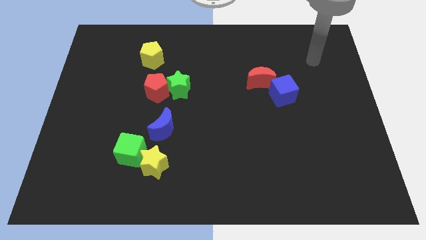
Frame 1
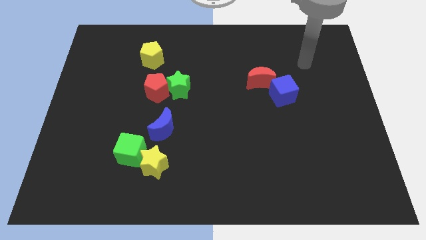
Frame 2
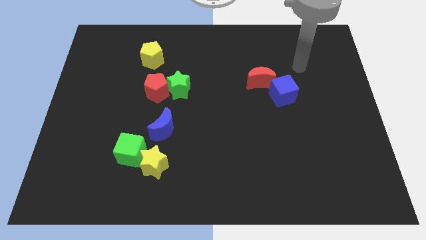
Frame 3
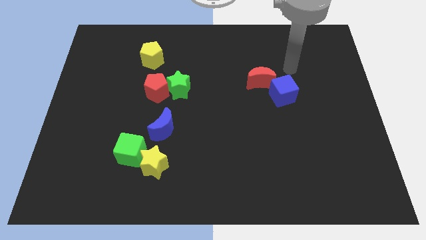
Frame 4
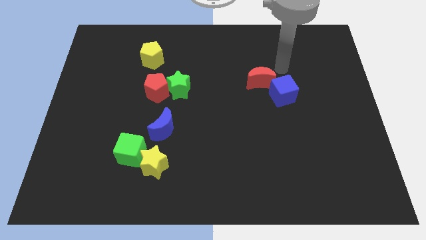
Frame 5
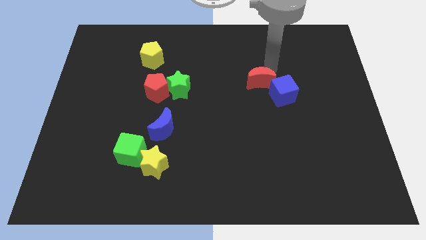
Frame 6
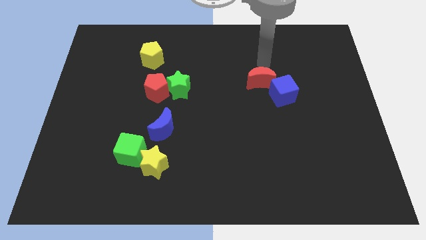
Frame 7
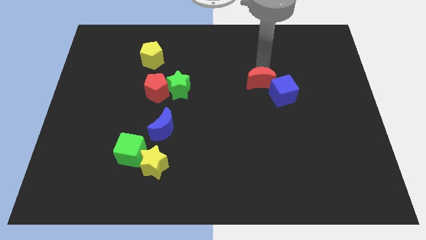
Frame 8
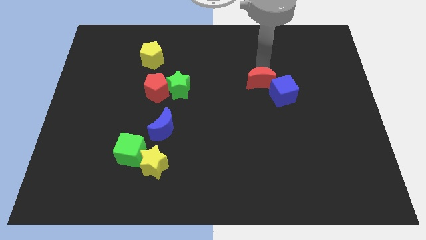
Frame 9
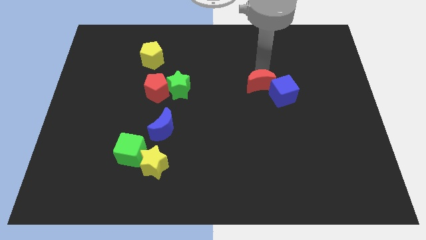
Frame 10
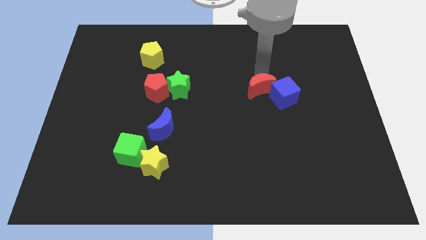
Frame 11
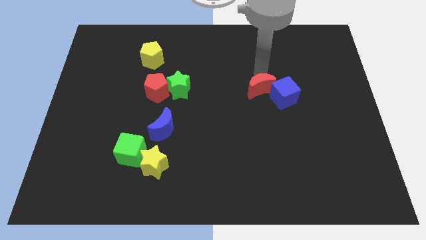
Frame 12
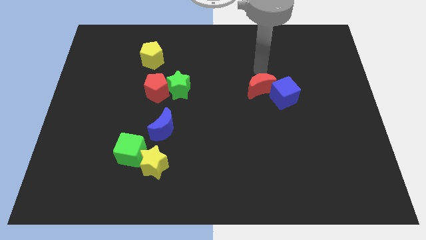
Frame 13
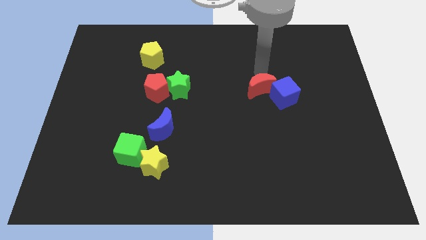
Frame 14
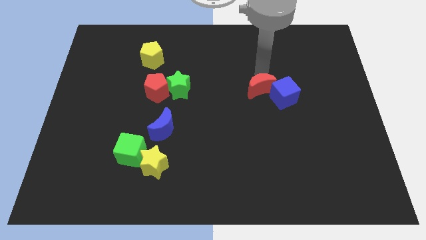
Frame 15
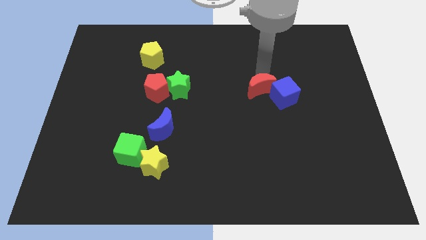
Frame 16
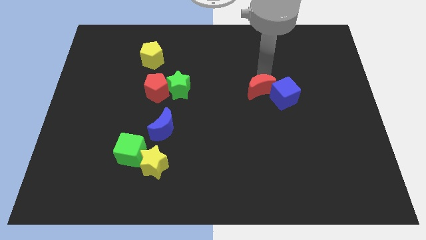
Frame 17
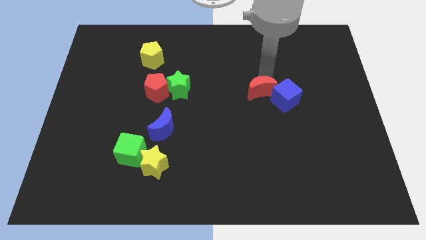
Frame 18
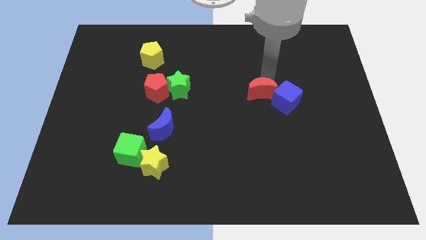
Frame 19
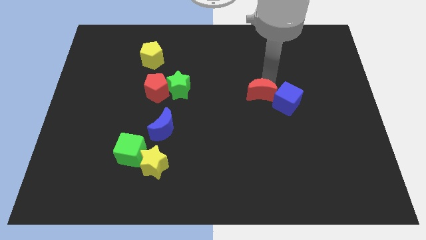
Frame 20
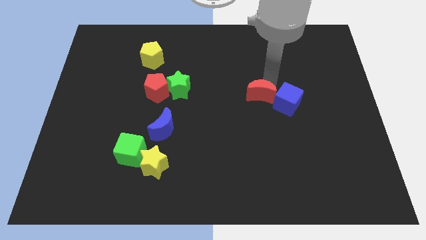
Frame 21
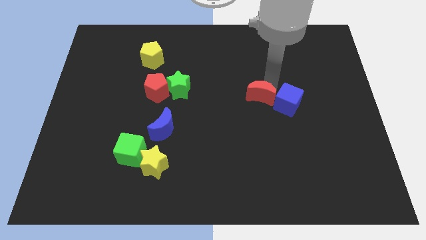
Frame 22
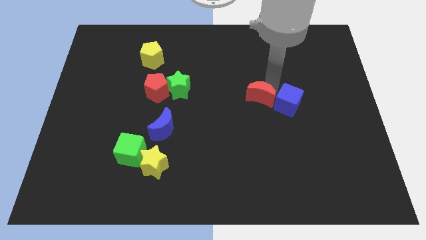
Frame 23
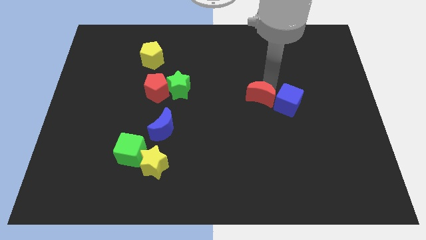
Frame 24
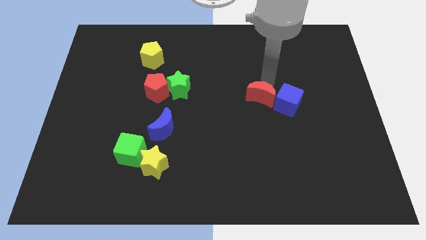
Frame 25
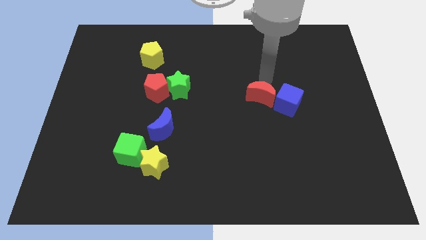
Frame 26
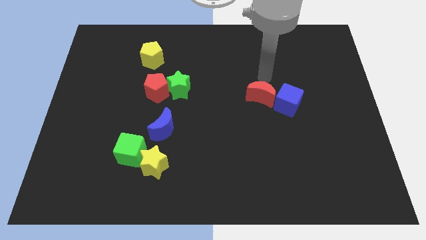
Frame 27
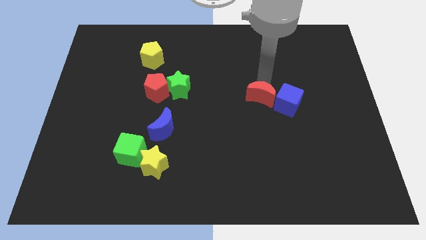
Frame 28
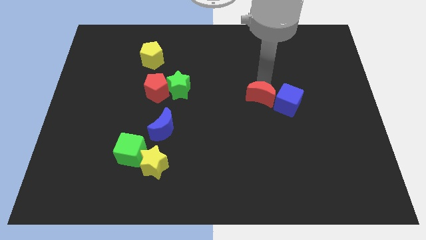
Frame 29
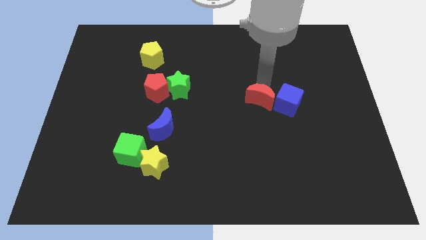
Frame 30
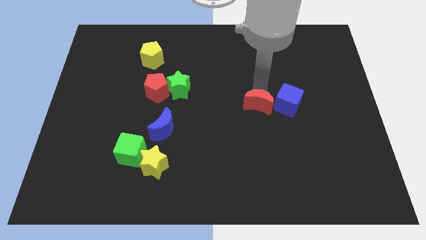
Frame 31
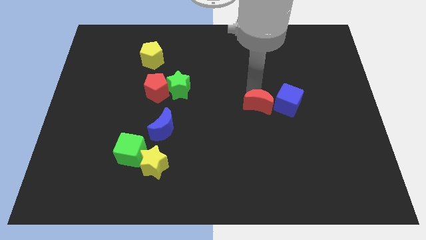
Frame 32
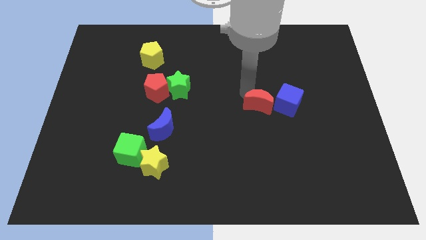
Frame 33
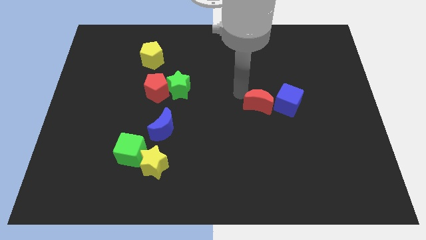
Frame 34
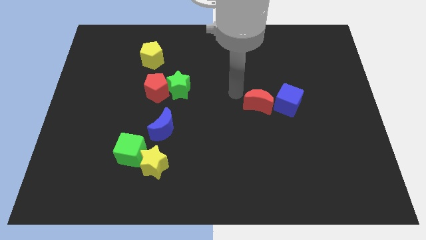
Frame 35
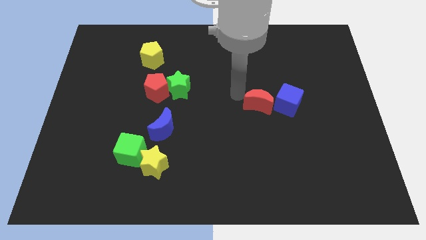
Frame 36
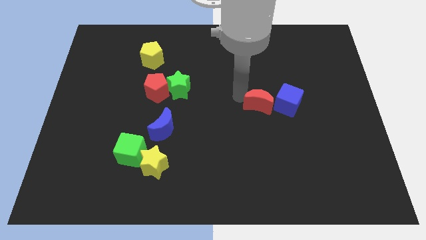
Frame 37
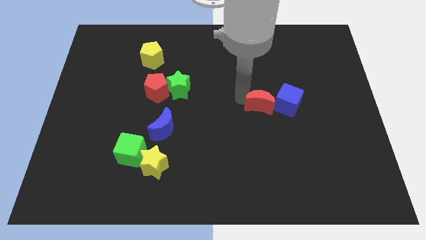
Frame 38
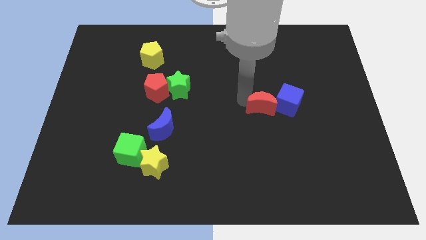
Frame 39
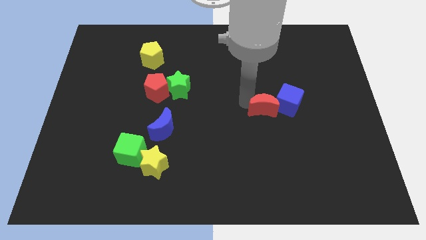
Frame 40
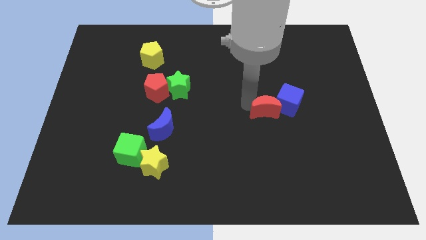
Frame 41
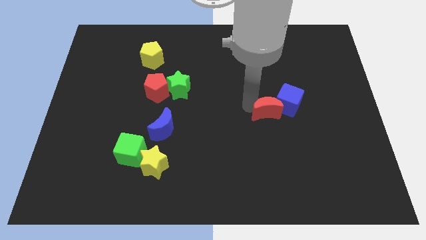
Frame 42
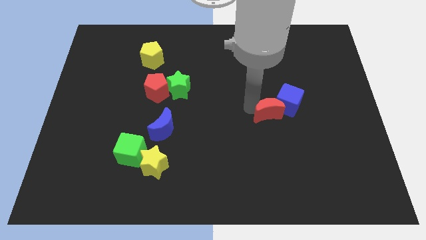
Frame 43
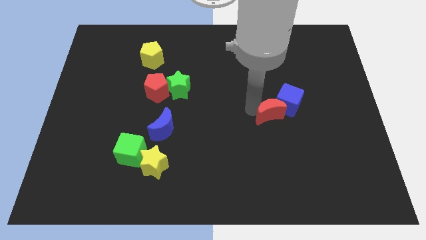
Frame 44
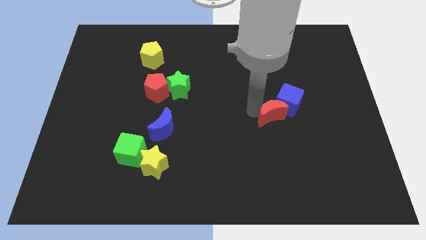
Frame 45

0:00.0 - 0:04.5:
slightly push the red moon downwards and right diagonally

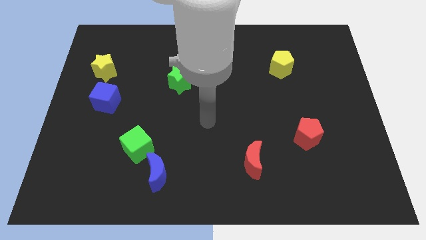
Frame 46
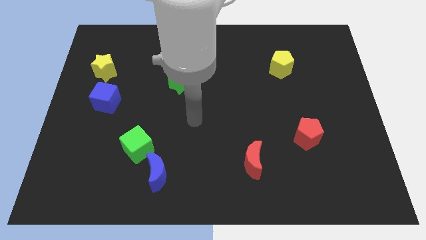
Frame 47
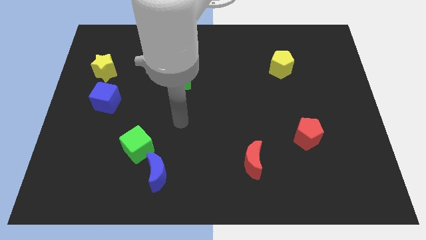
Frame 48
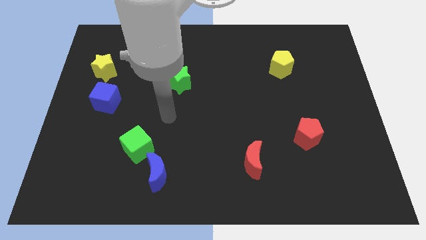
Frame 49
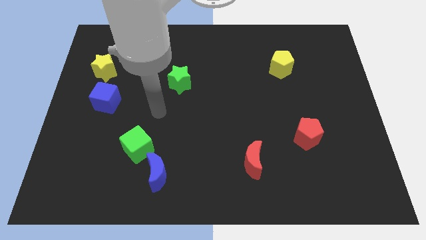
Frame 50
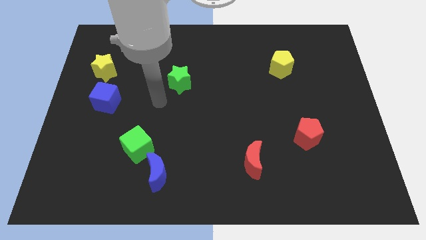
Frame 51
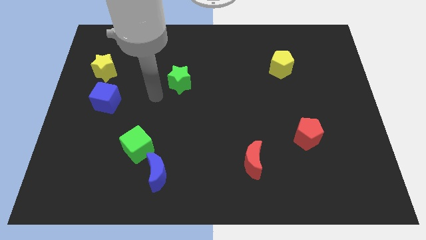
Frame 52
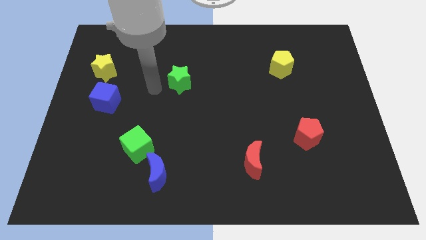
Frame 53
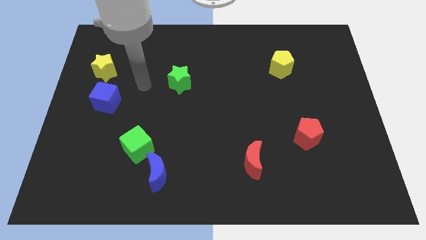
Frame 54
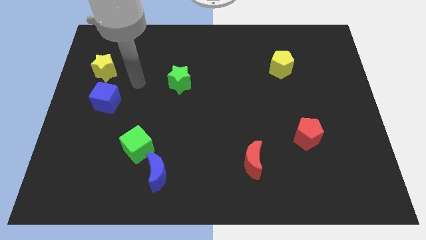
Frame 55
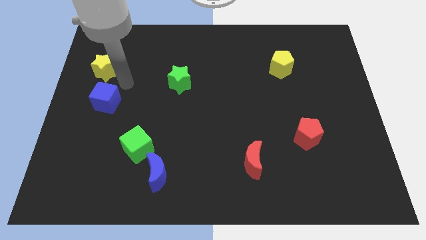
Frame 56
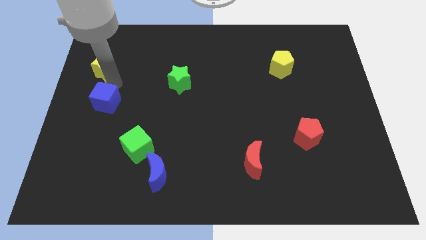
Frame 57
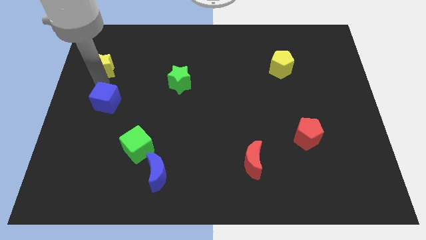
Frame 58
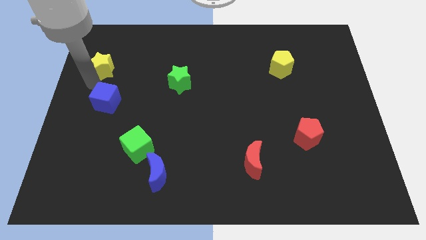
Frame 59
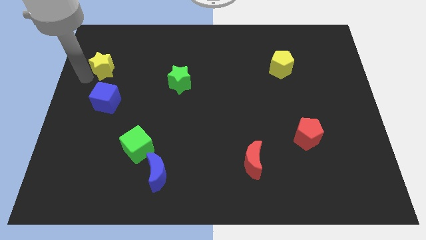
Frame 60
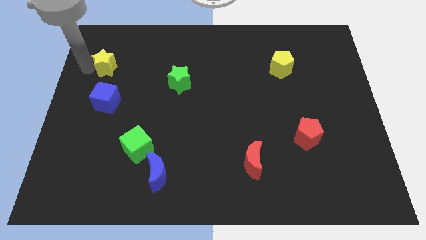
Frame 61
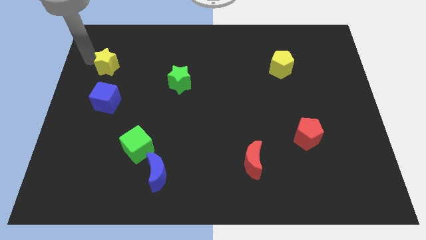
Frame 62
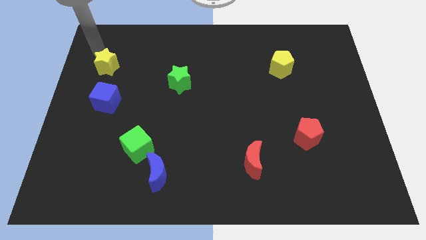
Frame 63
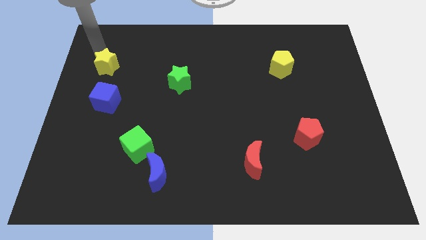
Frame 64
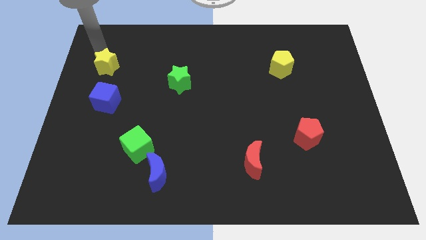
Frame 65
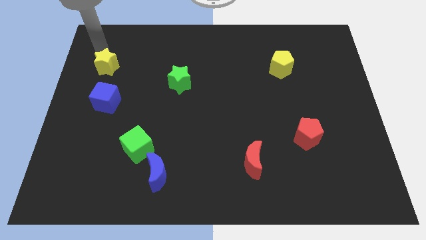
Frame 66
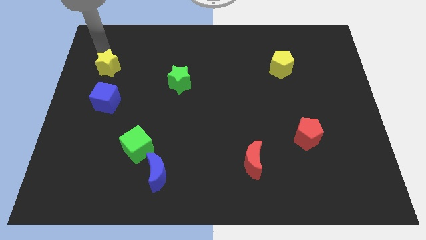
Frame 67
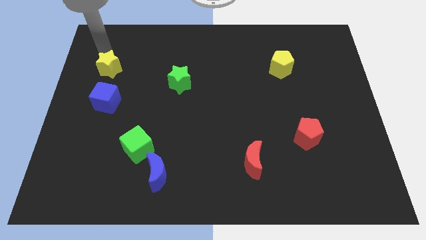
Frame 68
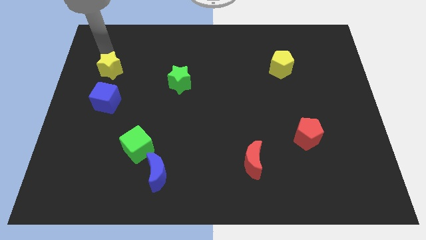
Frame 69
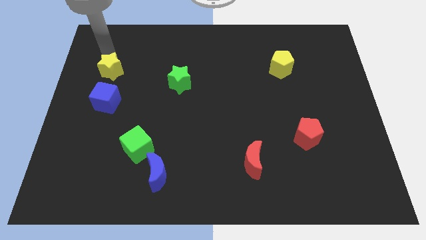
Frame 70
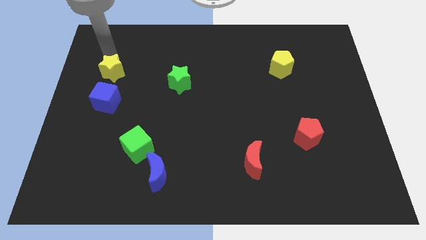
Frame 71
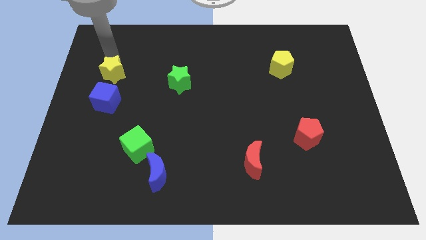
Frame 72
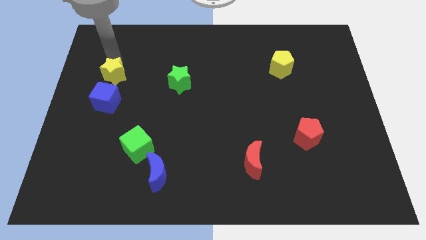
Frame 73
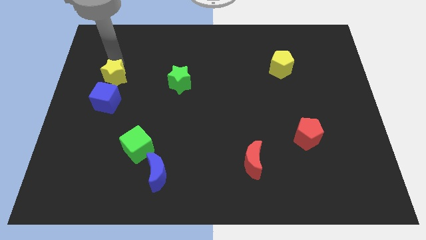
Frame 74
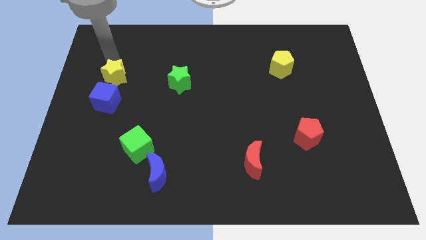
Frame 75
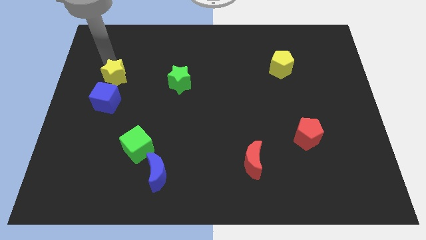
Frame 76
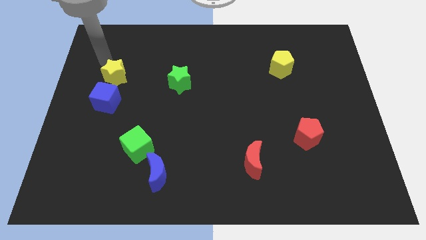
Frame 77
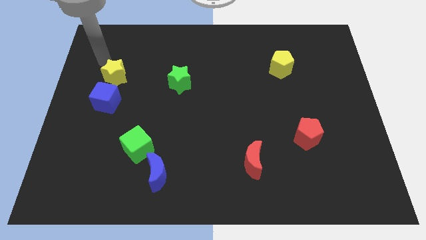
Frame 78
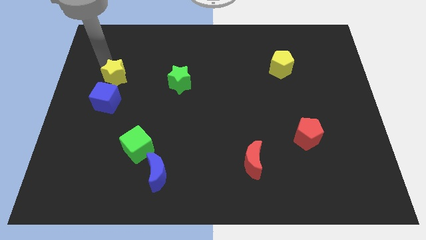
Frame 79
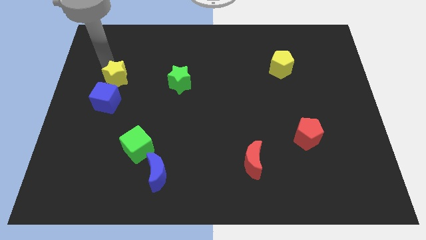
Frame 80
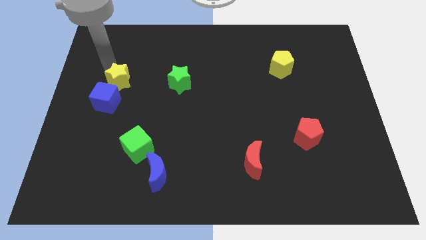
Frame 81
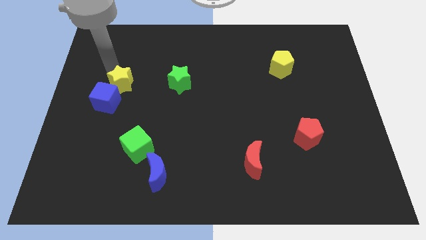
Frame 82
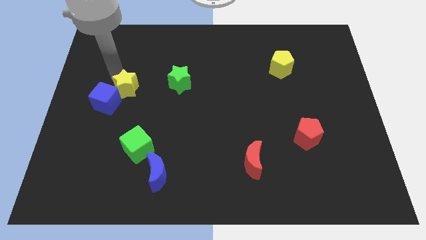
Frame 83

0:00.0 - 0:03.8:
push the yellow star somewhat down and right diagonally
